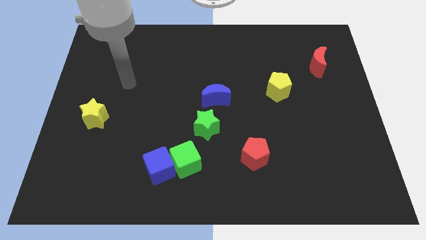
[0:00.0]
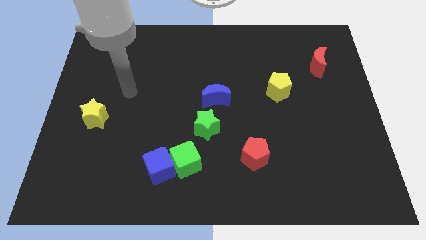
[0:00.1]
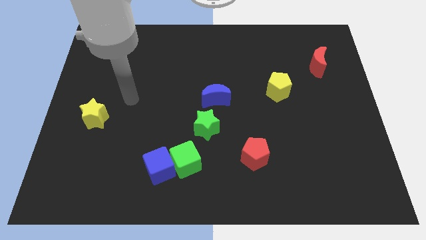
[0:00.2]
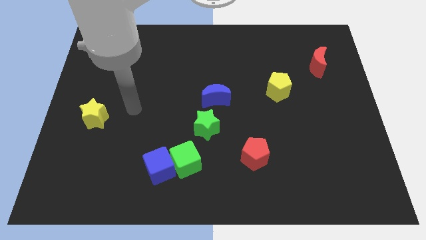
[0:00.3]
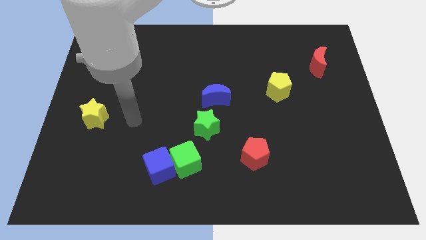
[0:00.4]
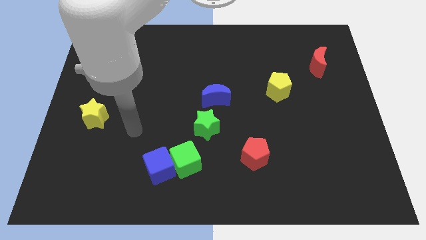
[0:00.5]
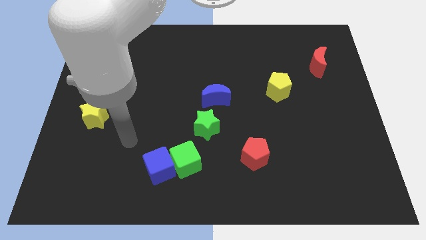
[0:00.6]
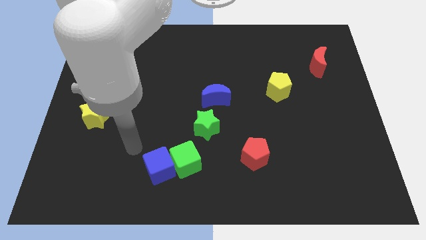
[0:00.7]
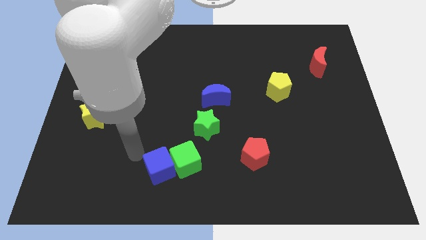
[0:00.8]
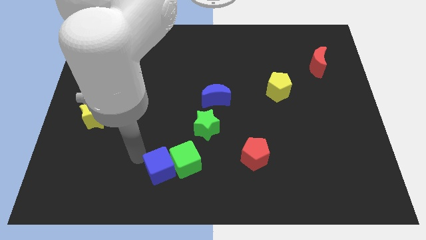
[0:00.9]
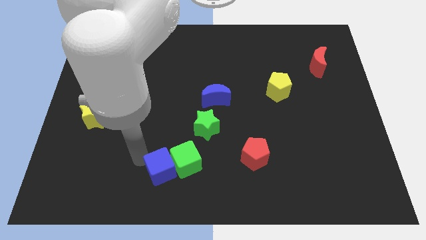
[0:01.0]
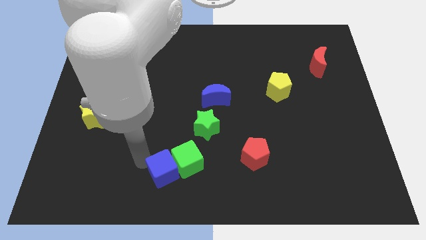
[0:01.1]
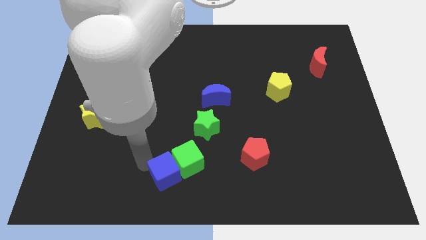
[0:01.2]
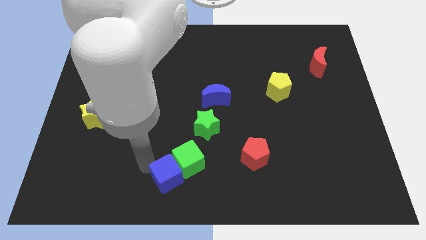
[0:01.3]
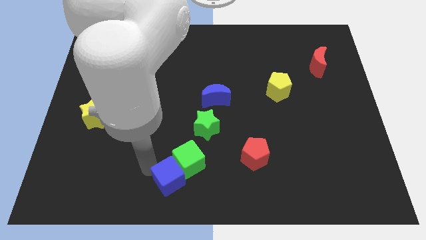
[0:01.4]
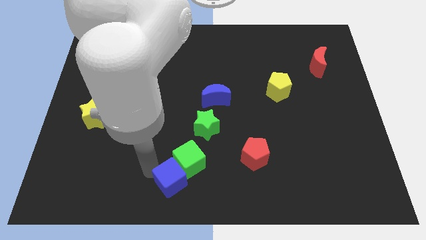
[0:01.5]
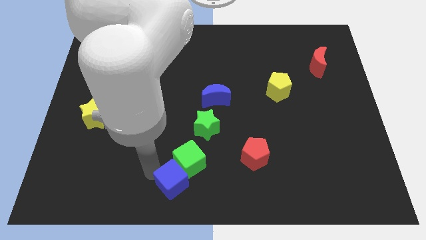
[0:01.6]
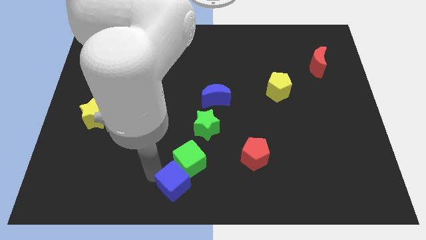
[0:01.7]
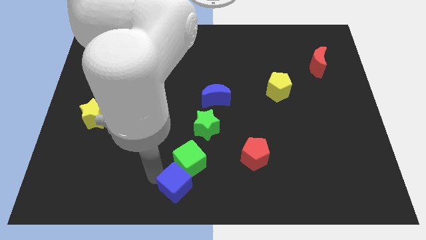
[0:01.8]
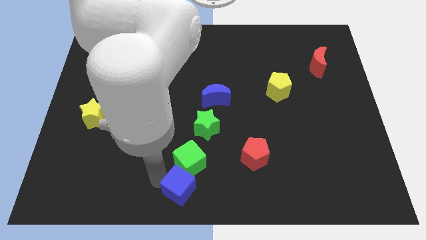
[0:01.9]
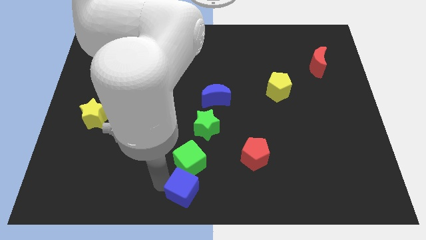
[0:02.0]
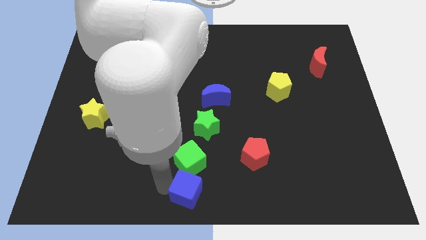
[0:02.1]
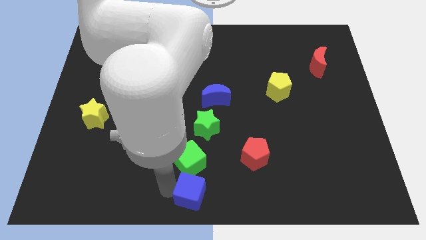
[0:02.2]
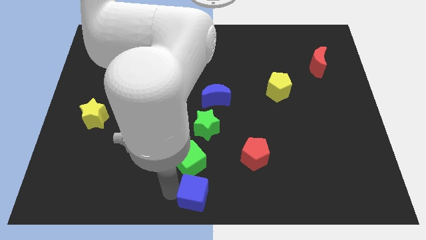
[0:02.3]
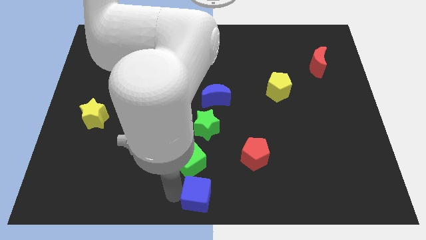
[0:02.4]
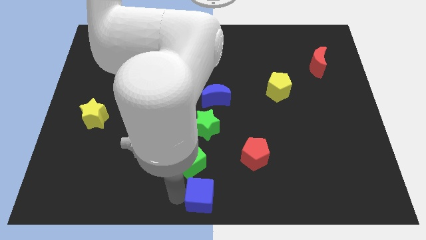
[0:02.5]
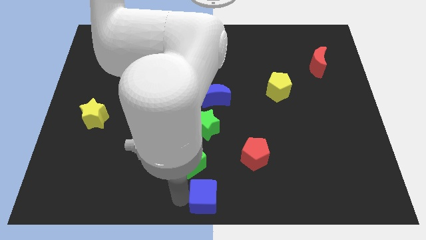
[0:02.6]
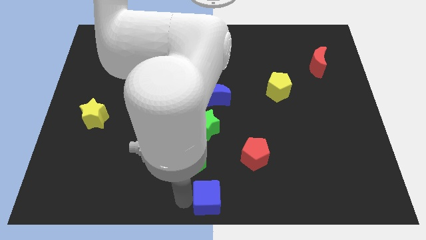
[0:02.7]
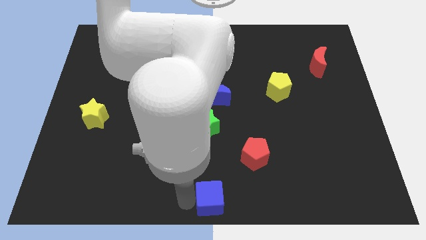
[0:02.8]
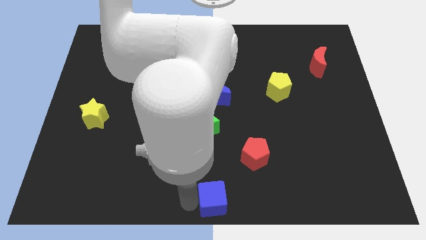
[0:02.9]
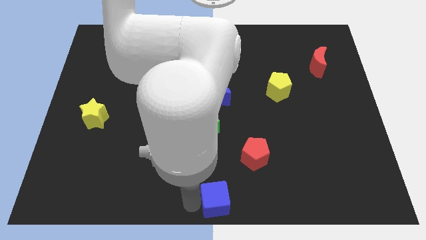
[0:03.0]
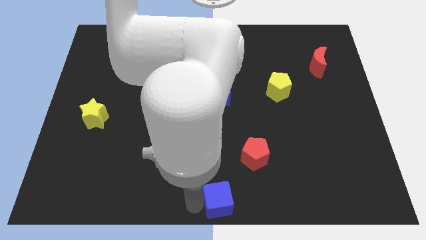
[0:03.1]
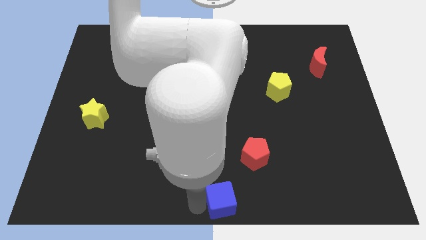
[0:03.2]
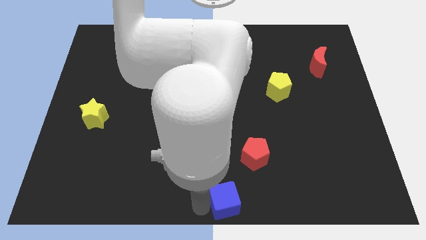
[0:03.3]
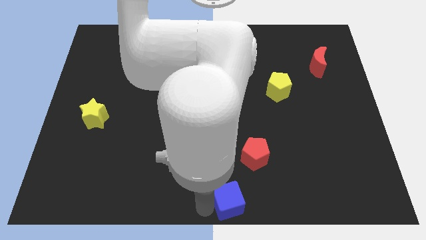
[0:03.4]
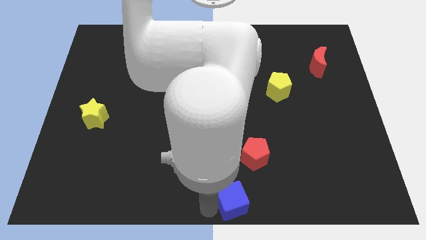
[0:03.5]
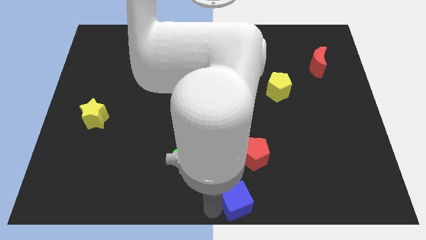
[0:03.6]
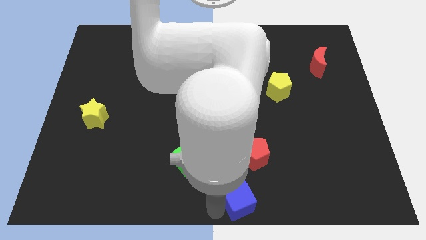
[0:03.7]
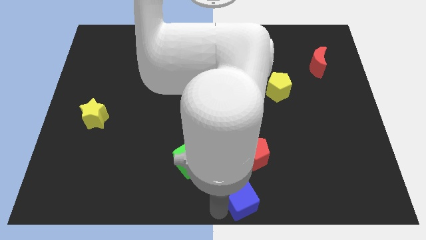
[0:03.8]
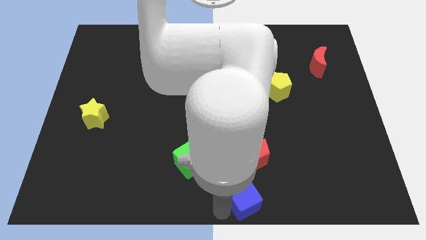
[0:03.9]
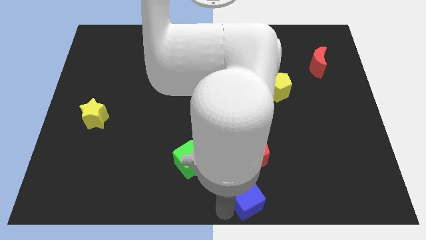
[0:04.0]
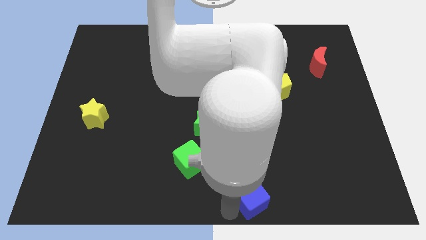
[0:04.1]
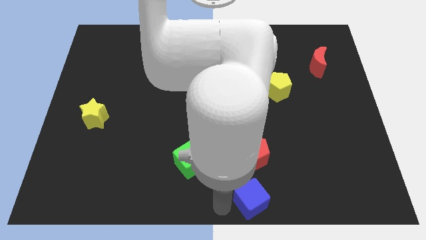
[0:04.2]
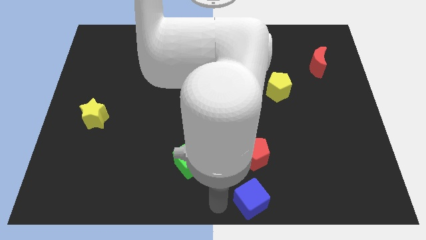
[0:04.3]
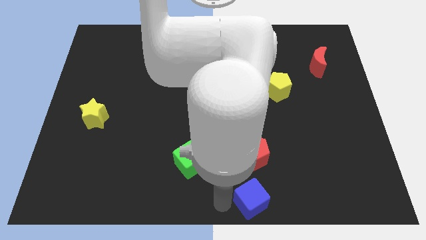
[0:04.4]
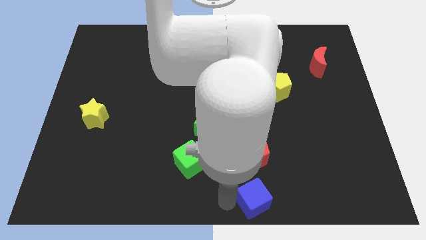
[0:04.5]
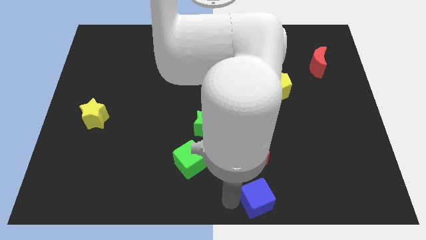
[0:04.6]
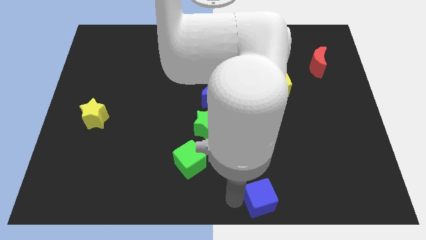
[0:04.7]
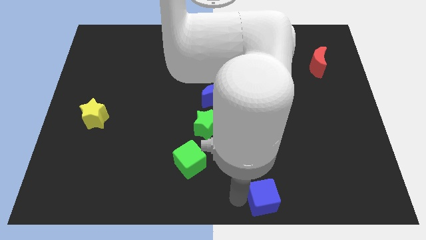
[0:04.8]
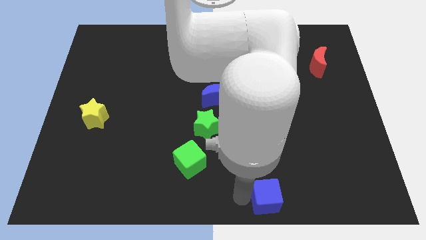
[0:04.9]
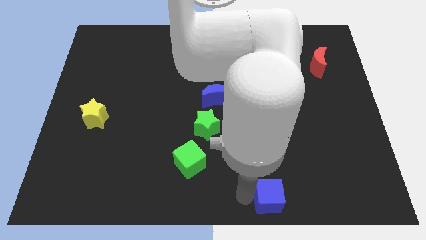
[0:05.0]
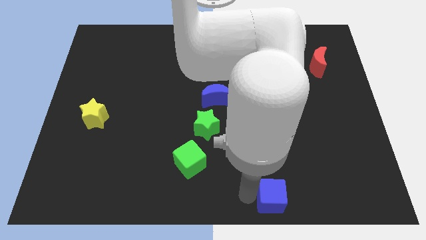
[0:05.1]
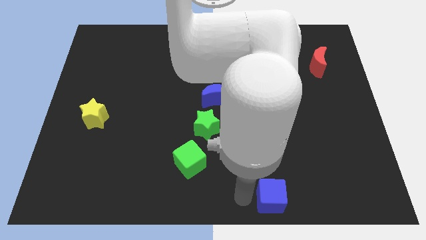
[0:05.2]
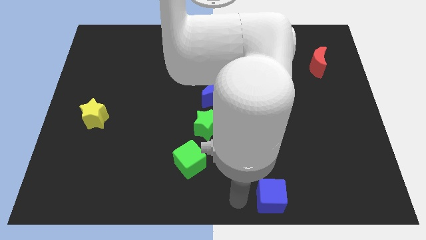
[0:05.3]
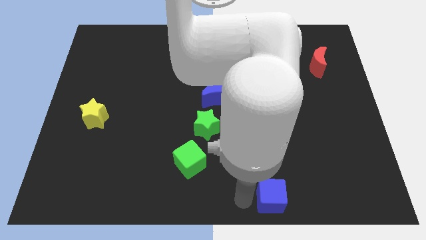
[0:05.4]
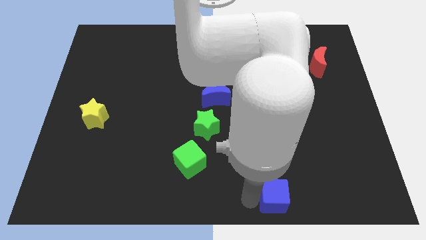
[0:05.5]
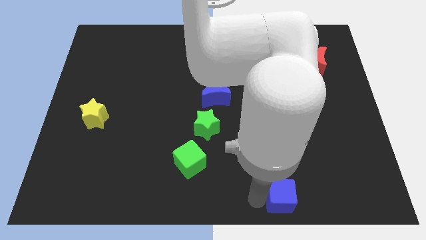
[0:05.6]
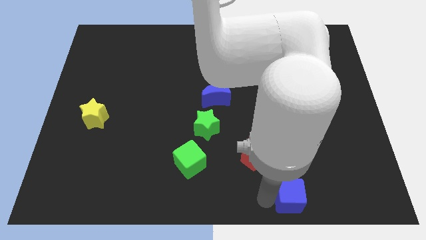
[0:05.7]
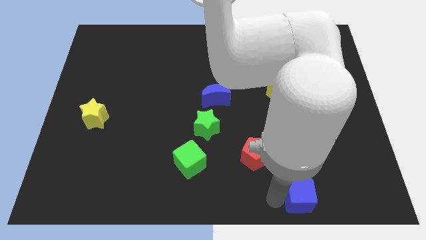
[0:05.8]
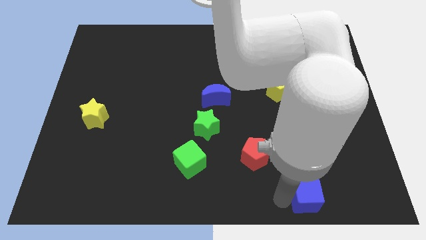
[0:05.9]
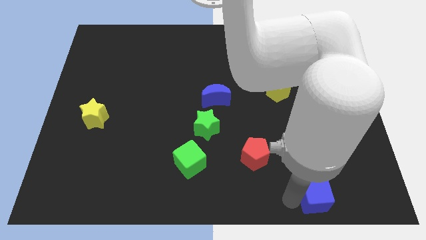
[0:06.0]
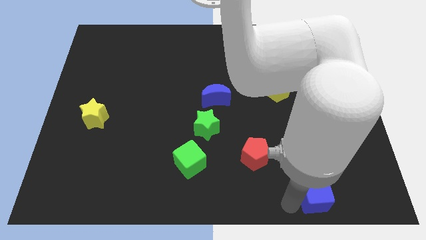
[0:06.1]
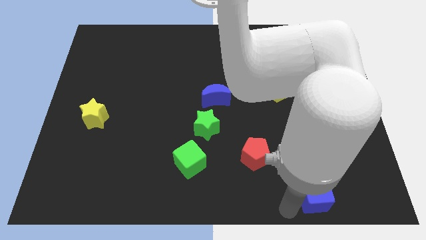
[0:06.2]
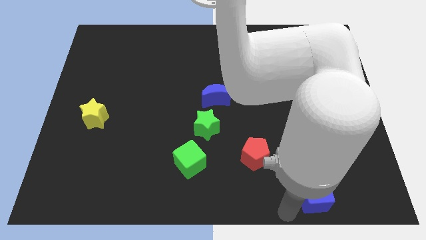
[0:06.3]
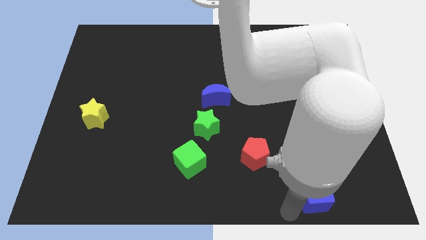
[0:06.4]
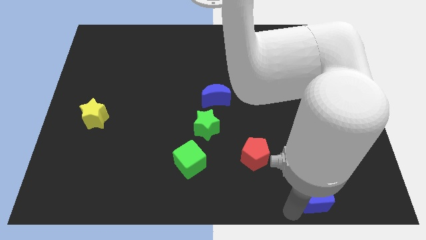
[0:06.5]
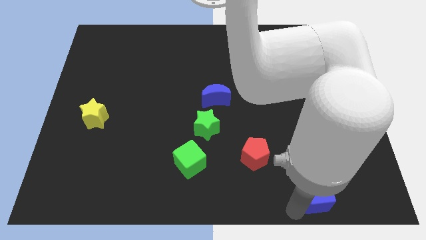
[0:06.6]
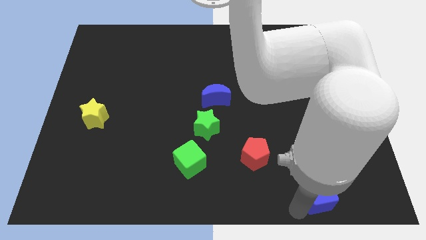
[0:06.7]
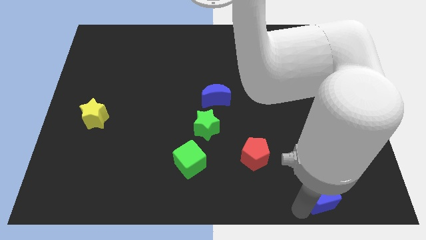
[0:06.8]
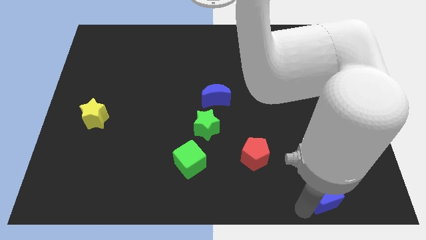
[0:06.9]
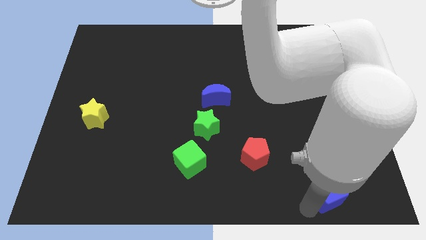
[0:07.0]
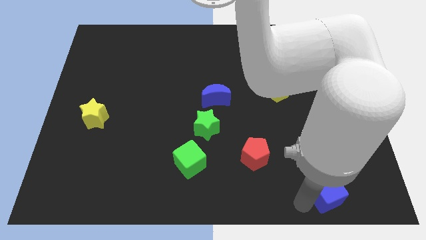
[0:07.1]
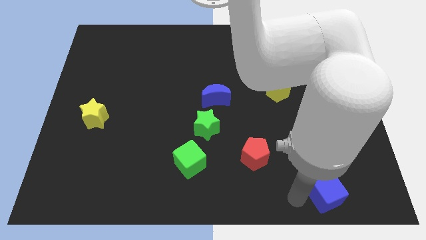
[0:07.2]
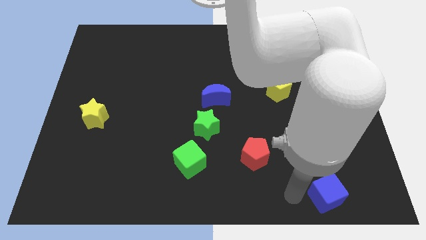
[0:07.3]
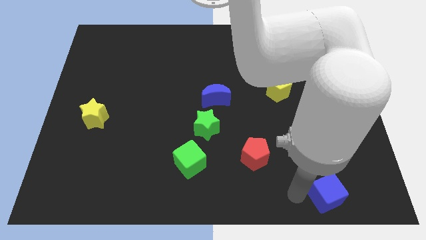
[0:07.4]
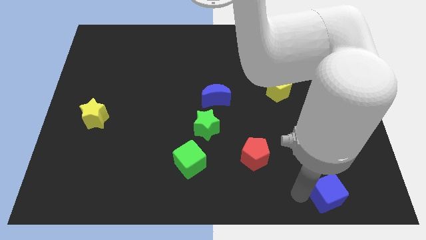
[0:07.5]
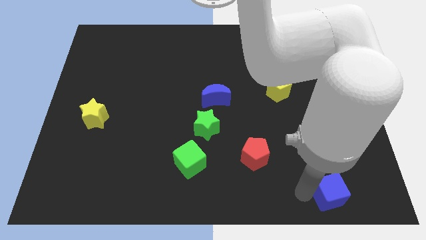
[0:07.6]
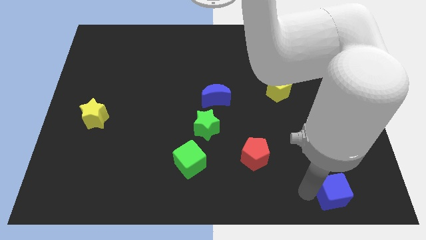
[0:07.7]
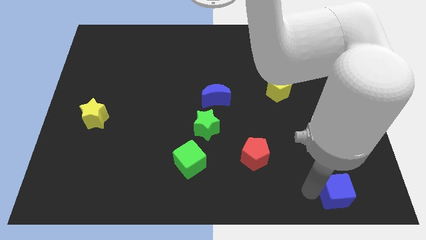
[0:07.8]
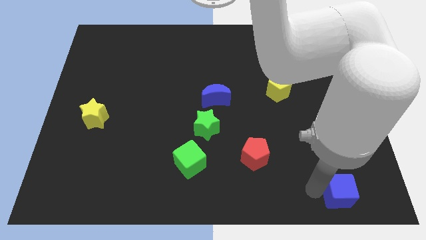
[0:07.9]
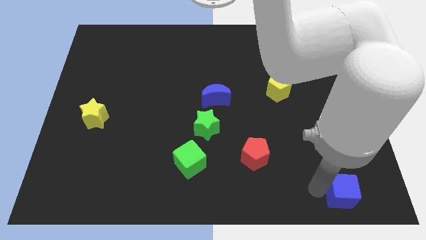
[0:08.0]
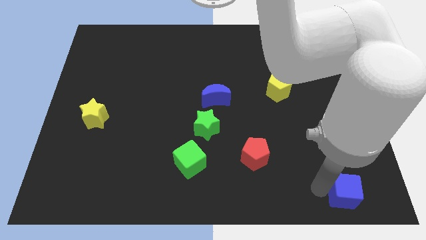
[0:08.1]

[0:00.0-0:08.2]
move the blue cube to the bottom right of the board
